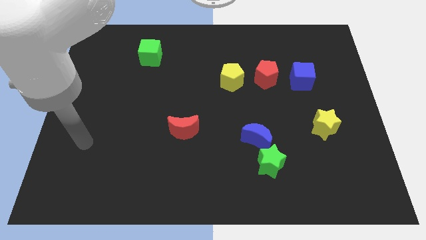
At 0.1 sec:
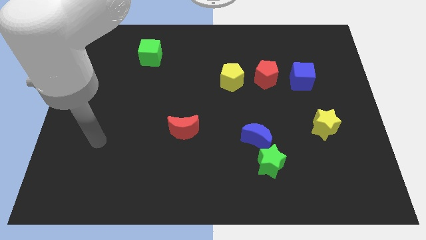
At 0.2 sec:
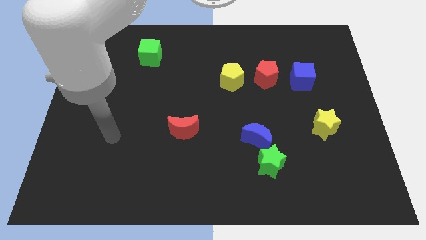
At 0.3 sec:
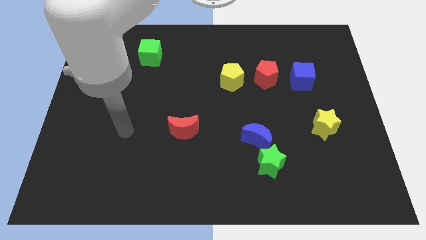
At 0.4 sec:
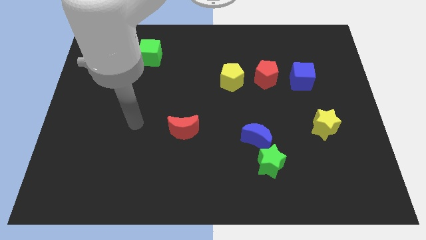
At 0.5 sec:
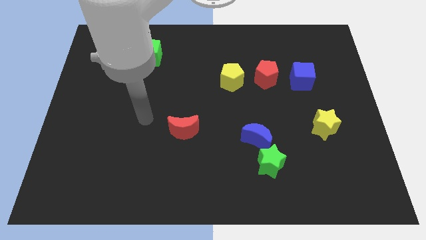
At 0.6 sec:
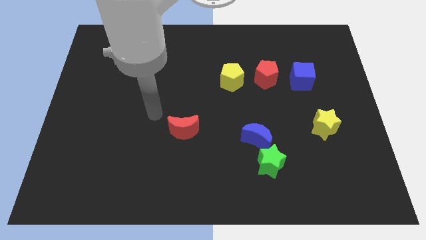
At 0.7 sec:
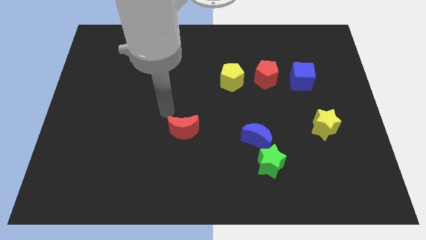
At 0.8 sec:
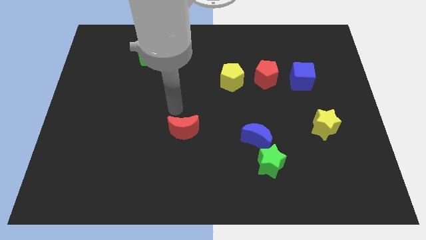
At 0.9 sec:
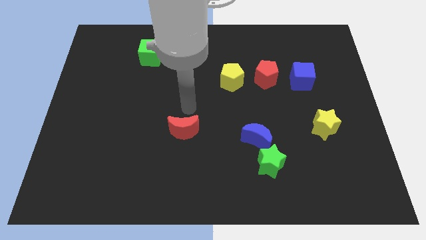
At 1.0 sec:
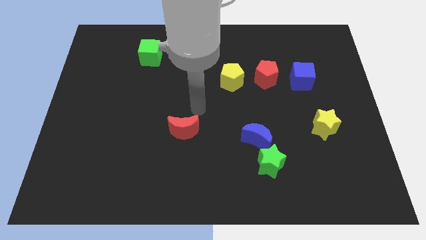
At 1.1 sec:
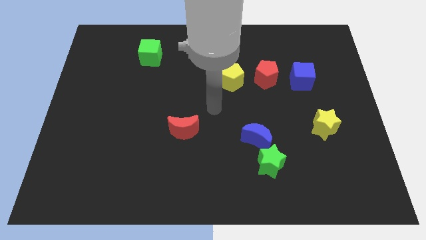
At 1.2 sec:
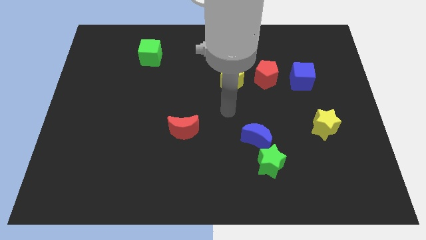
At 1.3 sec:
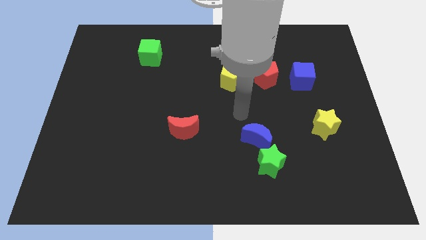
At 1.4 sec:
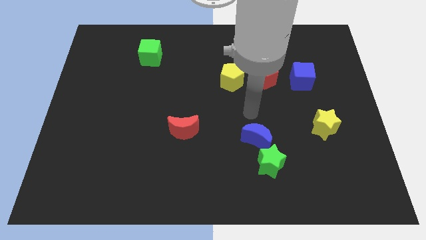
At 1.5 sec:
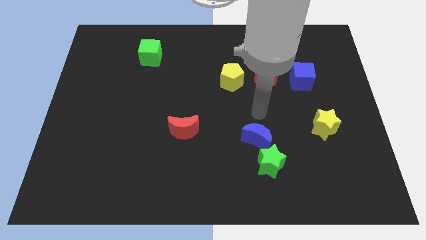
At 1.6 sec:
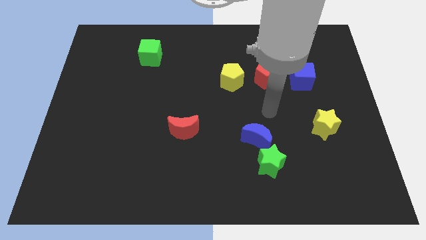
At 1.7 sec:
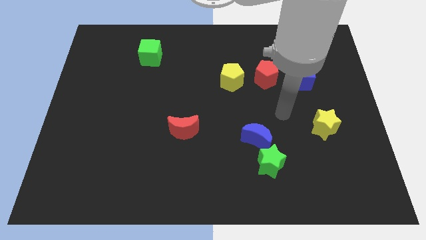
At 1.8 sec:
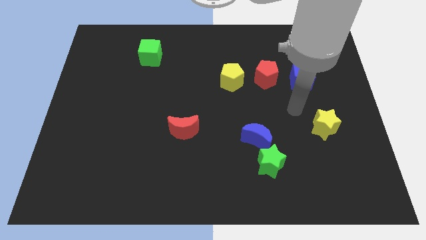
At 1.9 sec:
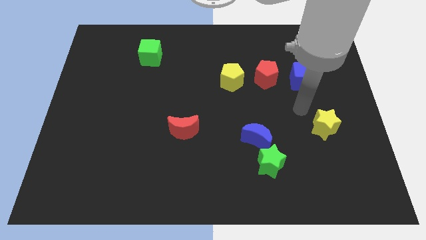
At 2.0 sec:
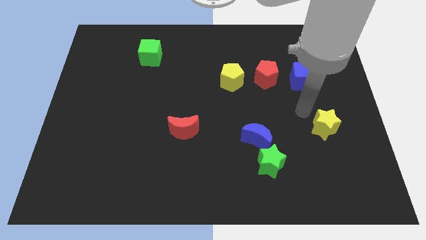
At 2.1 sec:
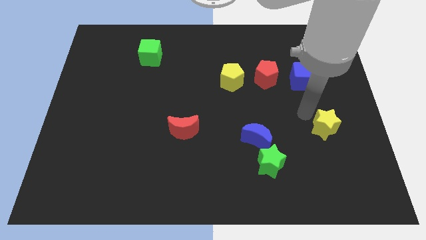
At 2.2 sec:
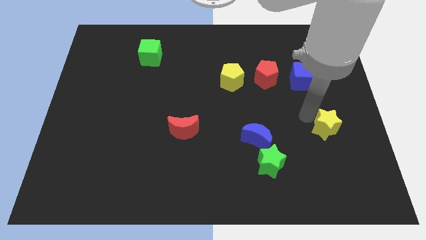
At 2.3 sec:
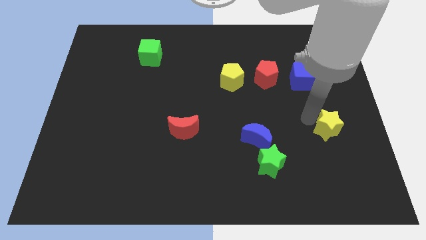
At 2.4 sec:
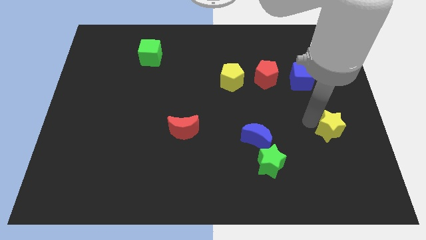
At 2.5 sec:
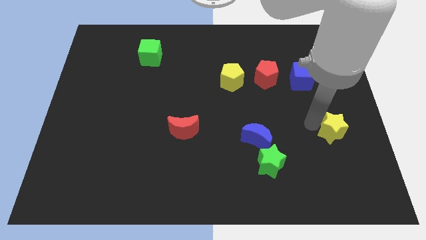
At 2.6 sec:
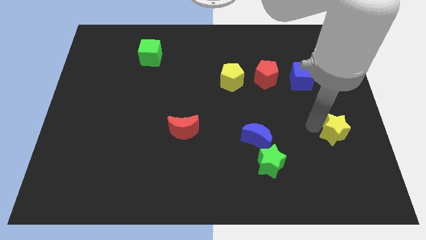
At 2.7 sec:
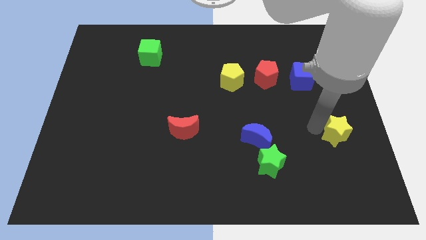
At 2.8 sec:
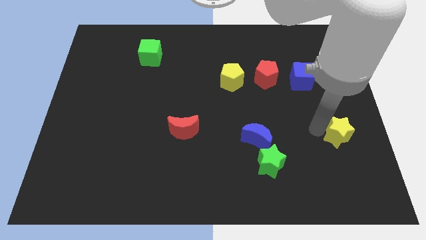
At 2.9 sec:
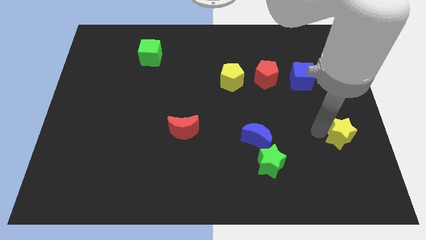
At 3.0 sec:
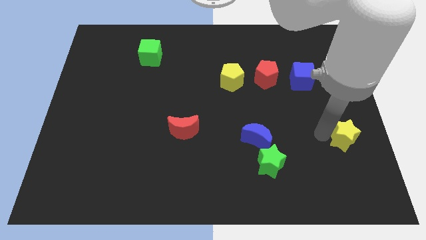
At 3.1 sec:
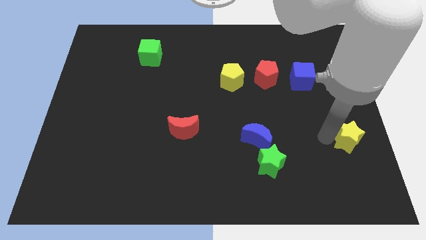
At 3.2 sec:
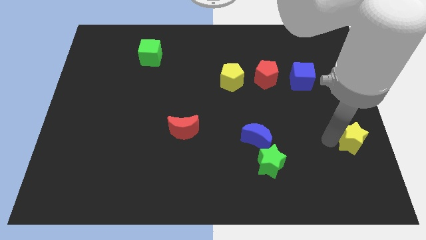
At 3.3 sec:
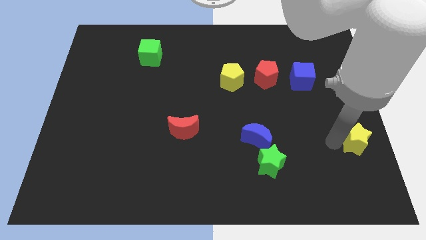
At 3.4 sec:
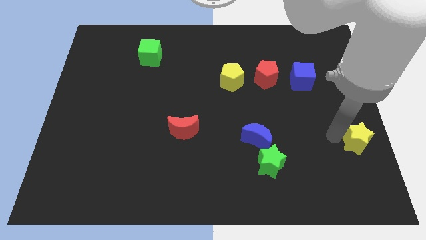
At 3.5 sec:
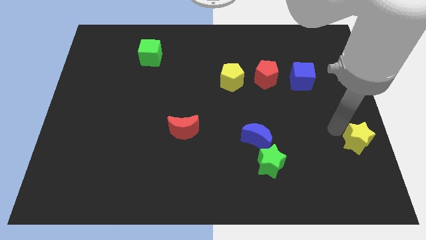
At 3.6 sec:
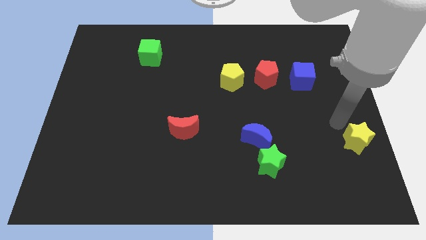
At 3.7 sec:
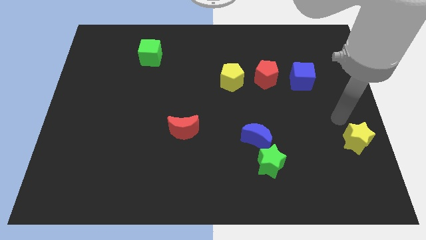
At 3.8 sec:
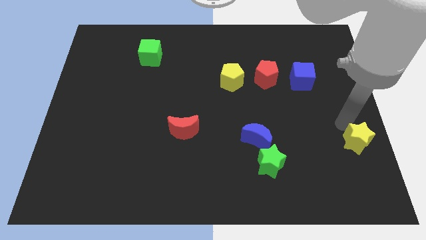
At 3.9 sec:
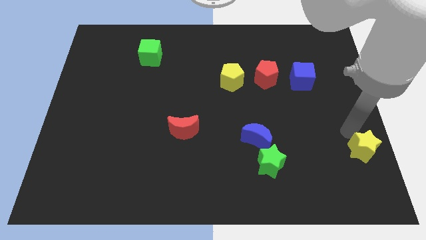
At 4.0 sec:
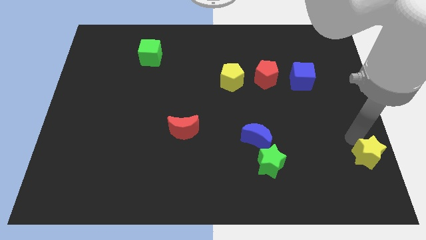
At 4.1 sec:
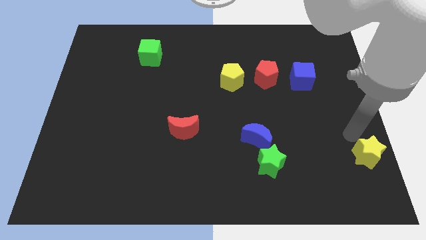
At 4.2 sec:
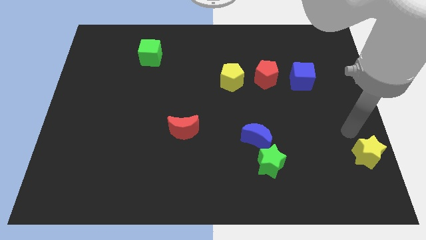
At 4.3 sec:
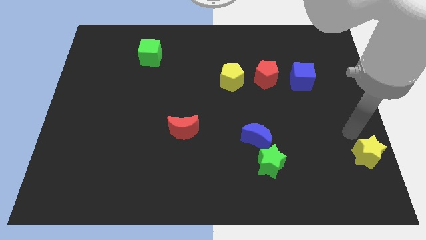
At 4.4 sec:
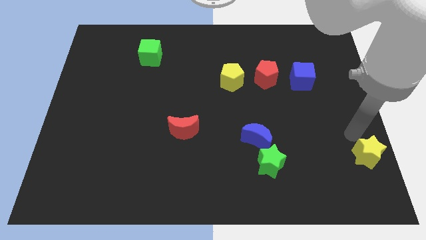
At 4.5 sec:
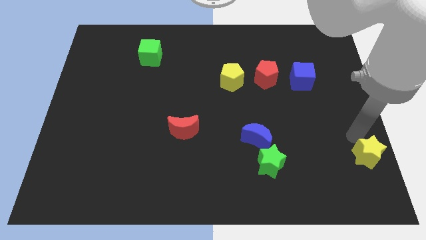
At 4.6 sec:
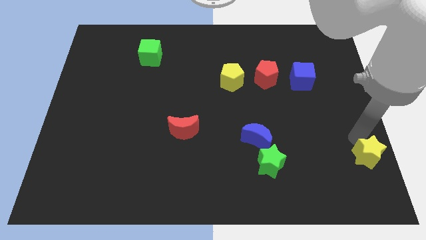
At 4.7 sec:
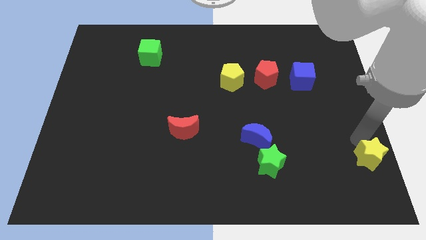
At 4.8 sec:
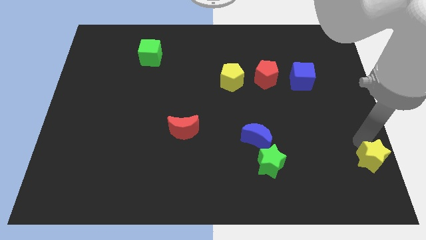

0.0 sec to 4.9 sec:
put the yellow star to the bottom right corner

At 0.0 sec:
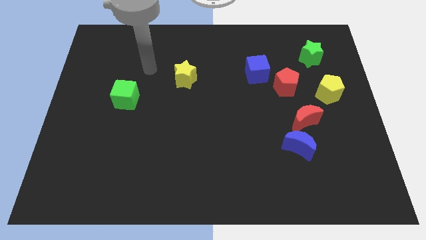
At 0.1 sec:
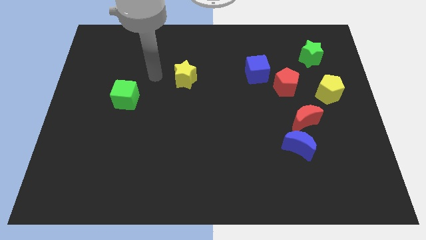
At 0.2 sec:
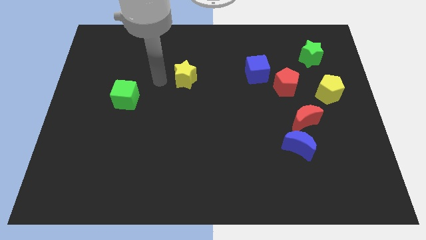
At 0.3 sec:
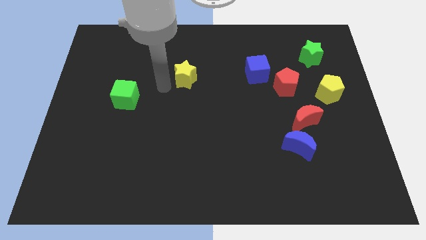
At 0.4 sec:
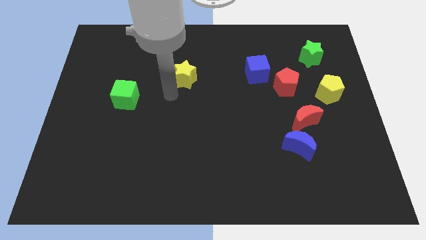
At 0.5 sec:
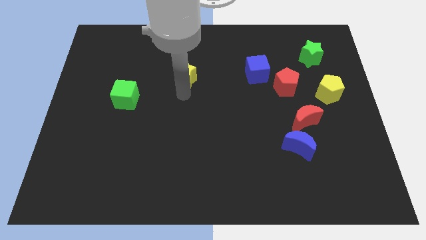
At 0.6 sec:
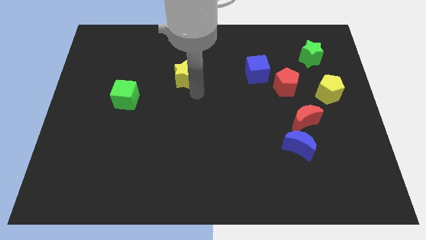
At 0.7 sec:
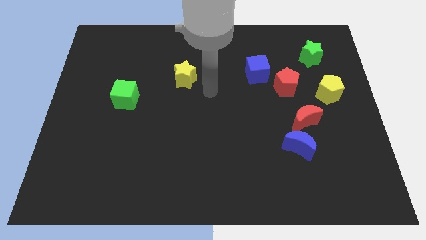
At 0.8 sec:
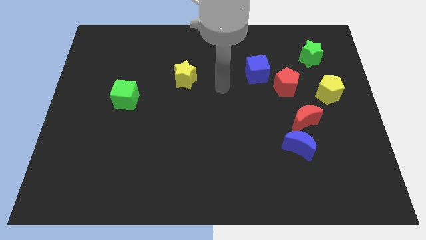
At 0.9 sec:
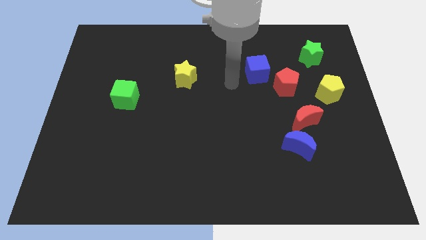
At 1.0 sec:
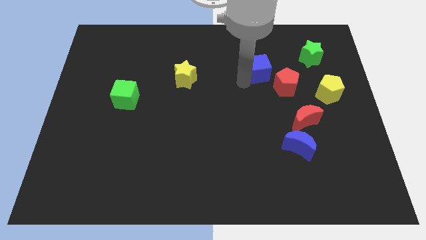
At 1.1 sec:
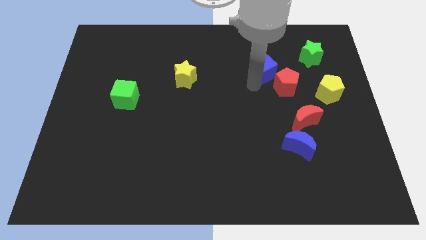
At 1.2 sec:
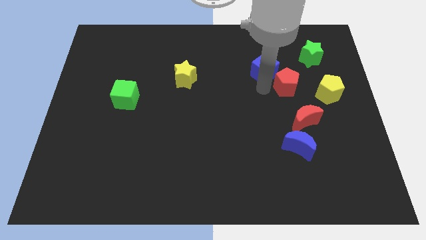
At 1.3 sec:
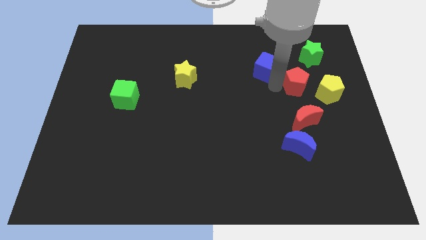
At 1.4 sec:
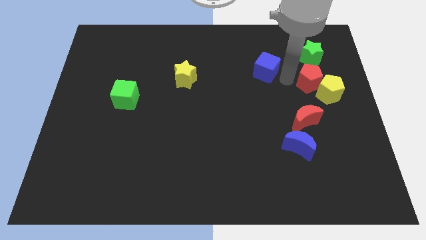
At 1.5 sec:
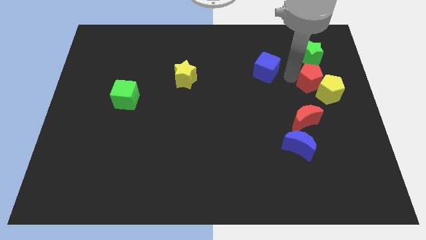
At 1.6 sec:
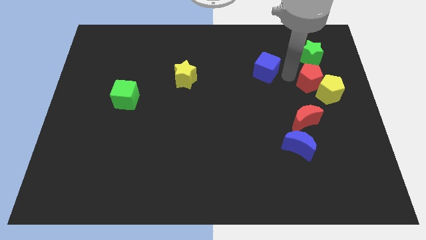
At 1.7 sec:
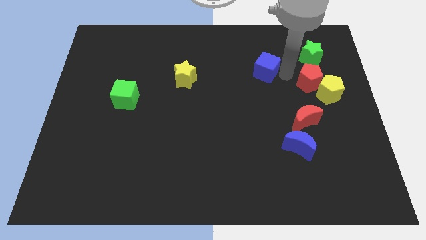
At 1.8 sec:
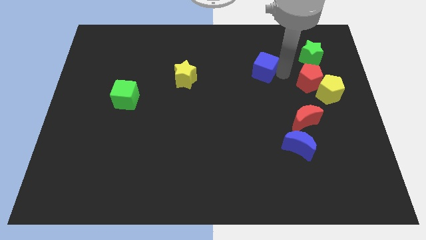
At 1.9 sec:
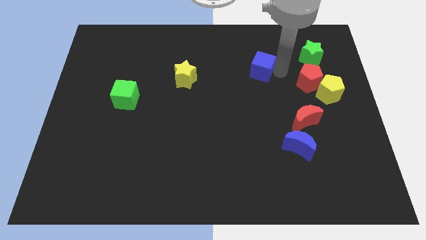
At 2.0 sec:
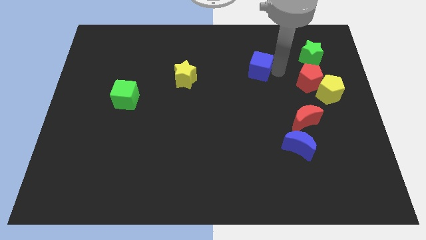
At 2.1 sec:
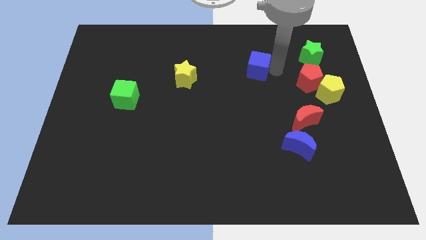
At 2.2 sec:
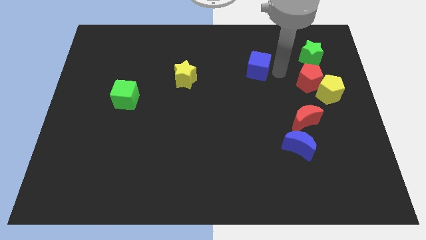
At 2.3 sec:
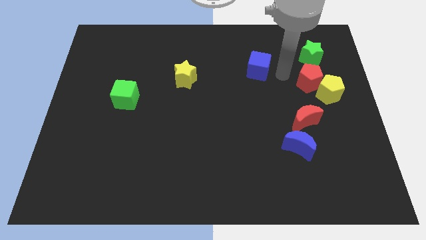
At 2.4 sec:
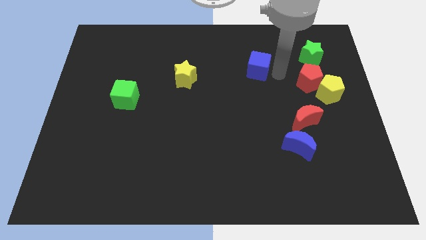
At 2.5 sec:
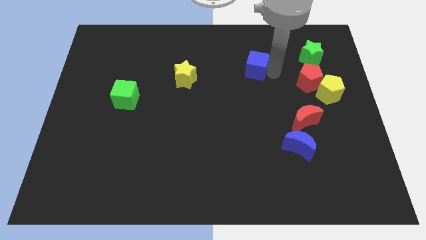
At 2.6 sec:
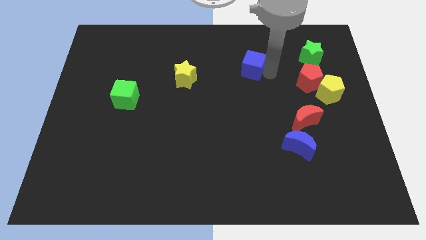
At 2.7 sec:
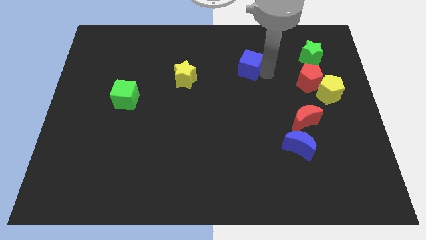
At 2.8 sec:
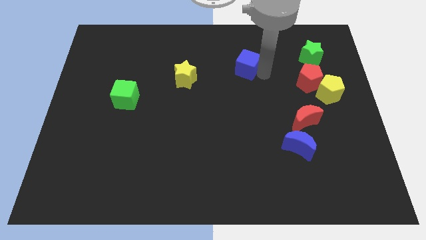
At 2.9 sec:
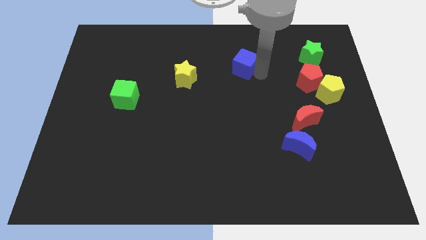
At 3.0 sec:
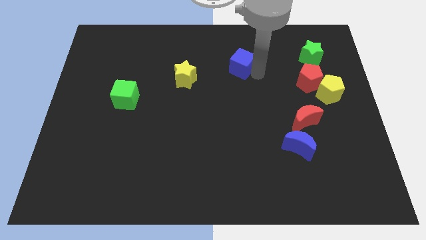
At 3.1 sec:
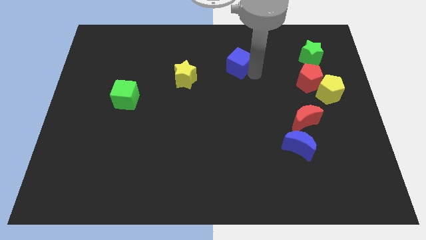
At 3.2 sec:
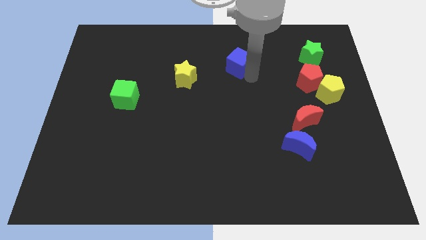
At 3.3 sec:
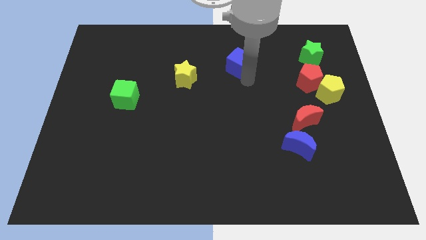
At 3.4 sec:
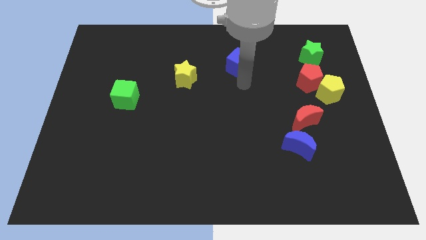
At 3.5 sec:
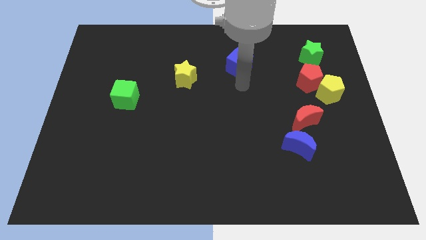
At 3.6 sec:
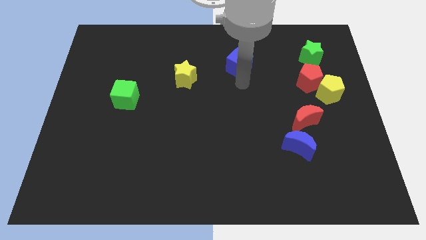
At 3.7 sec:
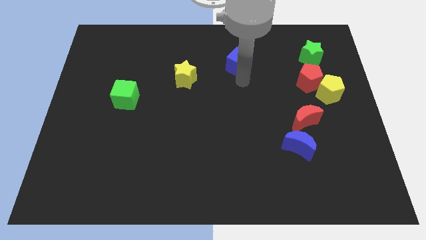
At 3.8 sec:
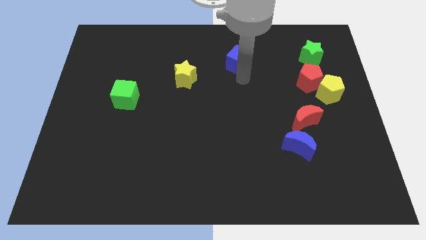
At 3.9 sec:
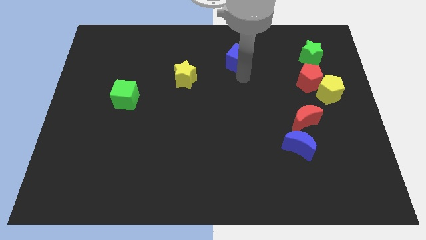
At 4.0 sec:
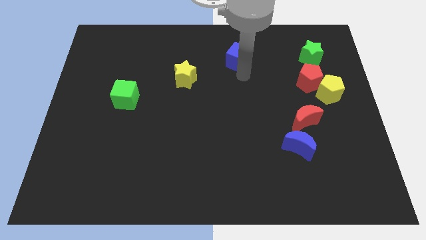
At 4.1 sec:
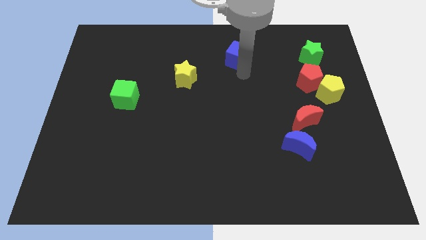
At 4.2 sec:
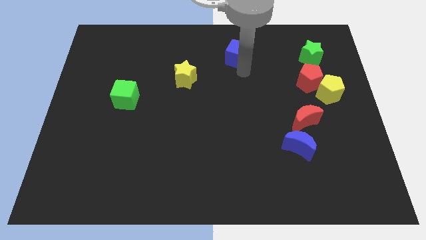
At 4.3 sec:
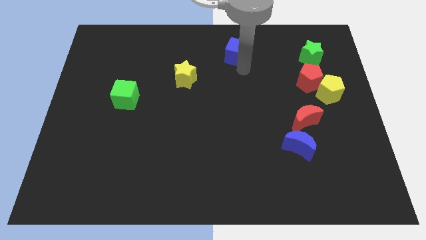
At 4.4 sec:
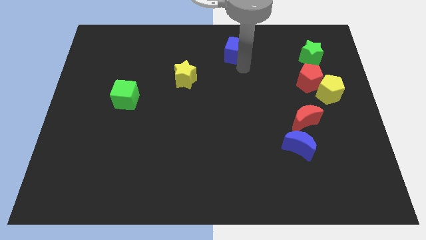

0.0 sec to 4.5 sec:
push the blue cube to the top
